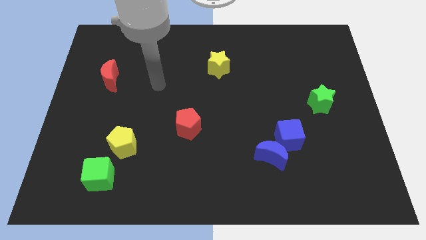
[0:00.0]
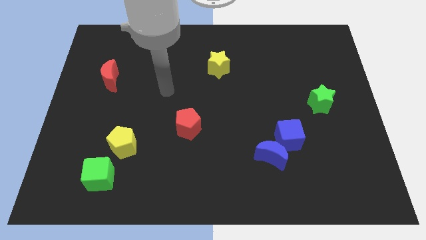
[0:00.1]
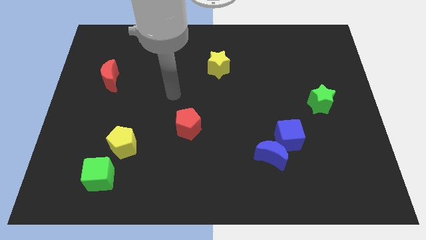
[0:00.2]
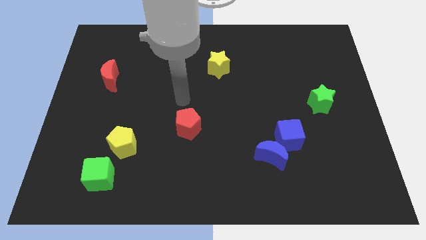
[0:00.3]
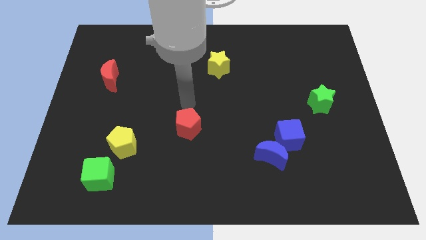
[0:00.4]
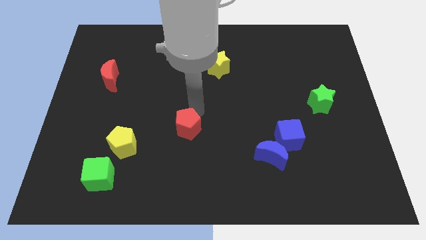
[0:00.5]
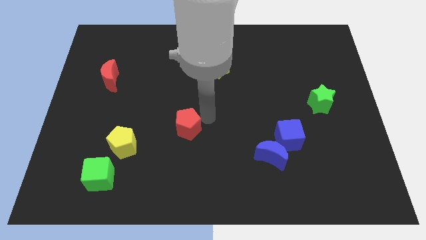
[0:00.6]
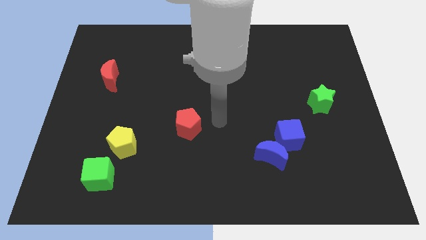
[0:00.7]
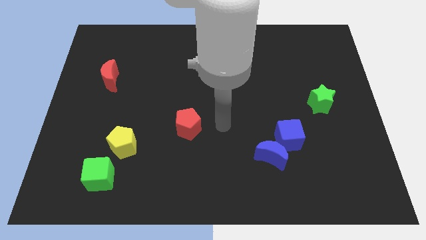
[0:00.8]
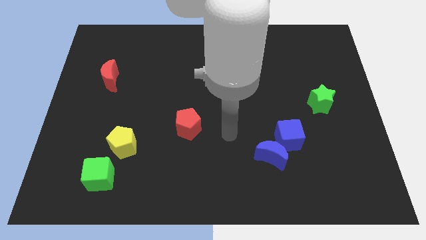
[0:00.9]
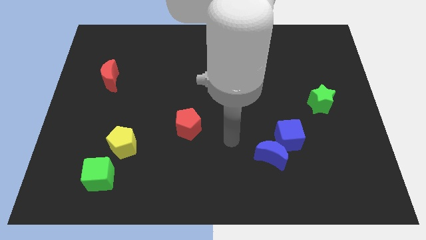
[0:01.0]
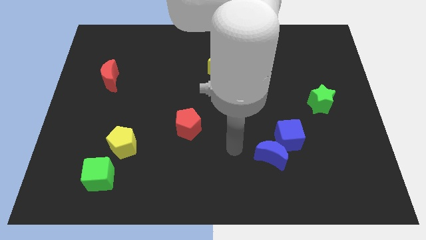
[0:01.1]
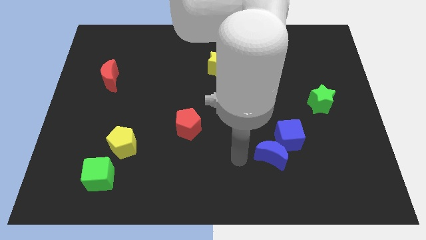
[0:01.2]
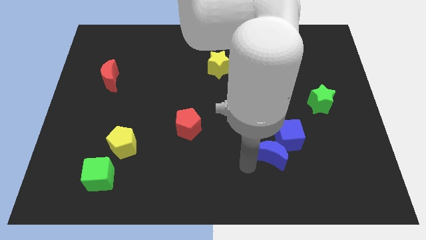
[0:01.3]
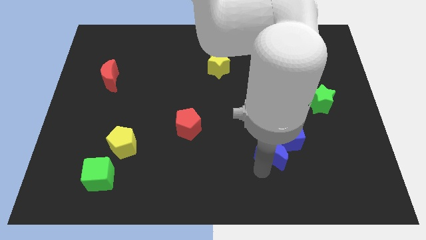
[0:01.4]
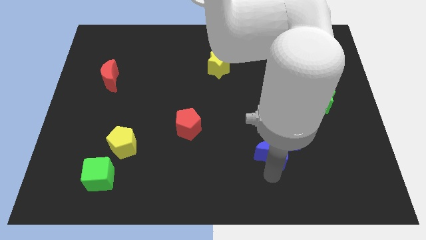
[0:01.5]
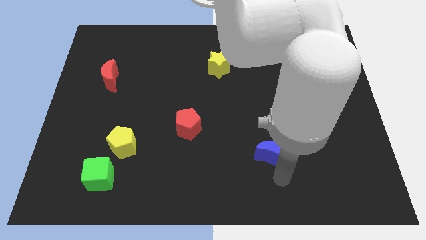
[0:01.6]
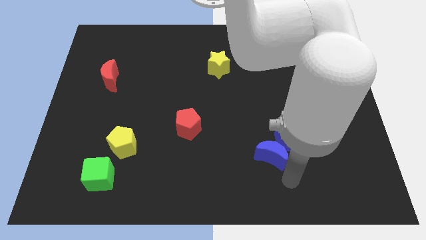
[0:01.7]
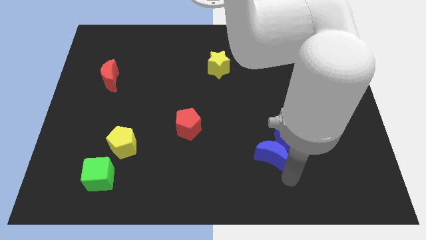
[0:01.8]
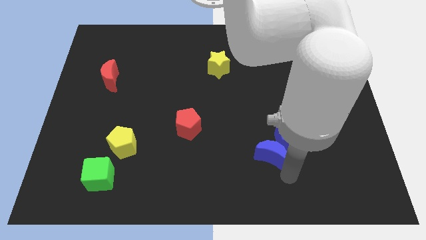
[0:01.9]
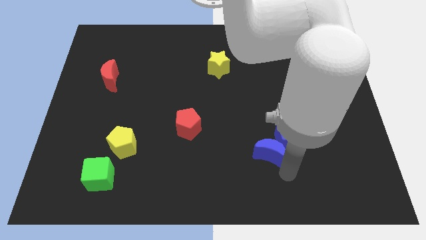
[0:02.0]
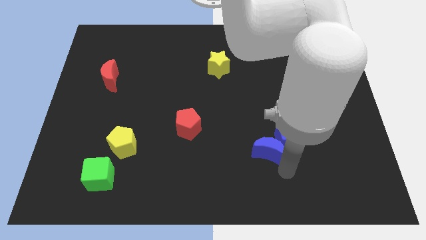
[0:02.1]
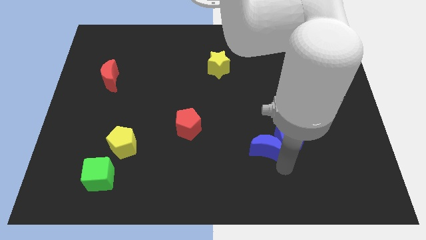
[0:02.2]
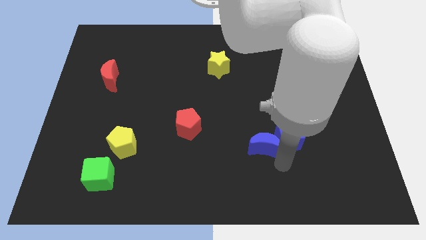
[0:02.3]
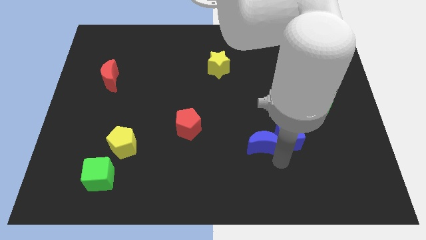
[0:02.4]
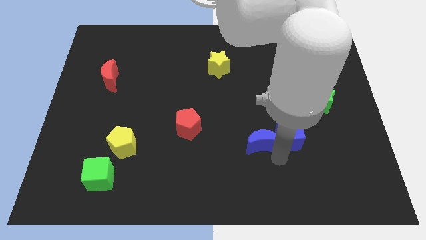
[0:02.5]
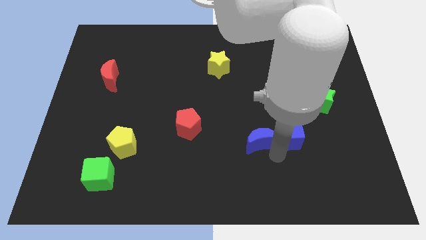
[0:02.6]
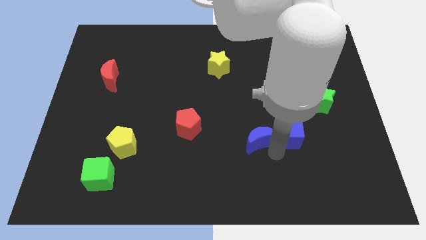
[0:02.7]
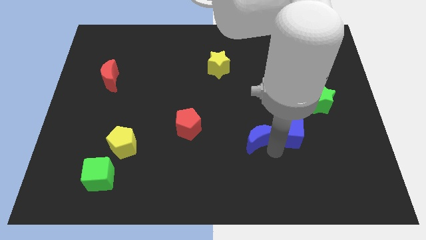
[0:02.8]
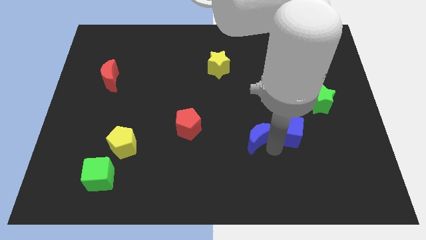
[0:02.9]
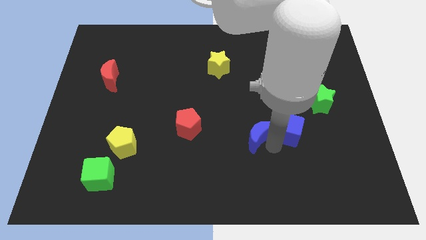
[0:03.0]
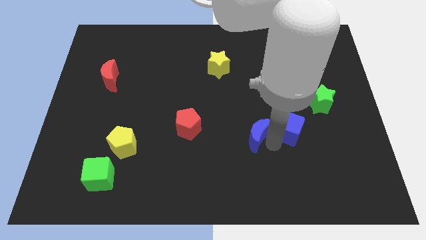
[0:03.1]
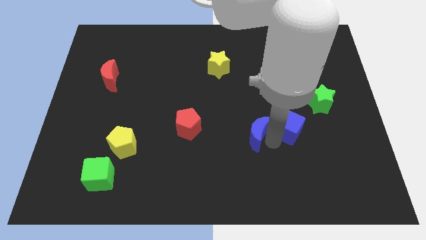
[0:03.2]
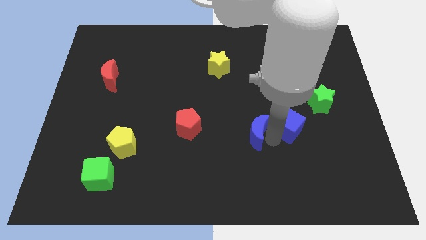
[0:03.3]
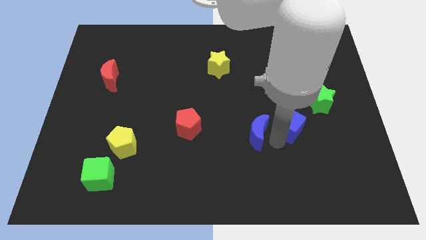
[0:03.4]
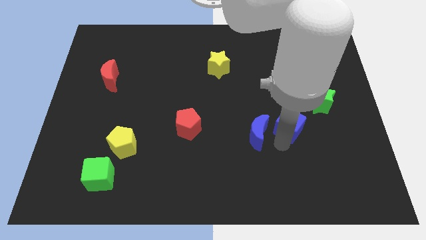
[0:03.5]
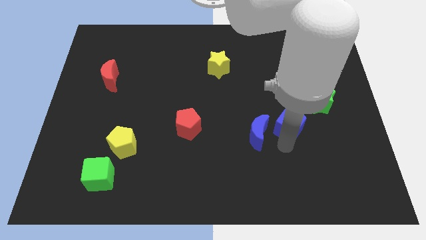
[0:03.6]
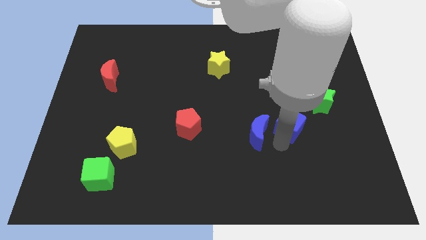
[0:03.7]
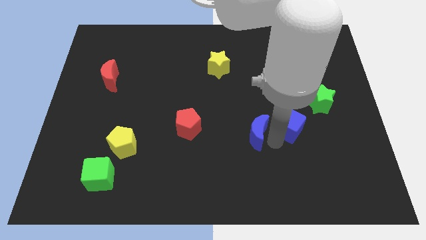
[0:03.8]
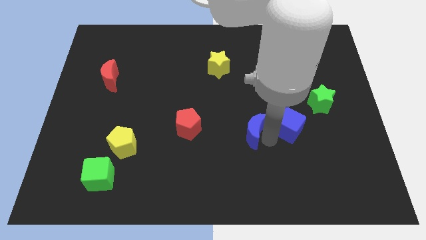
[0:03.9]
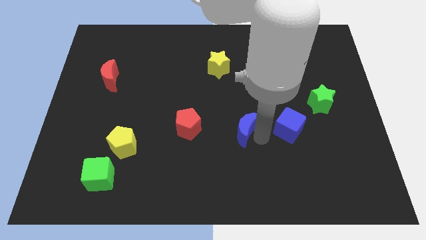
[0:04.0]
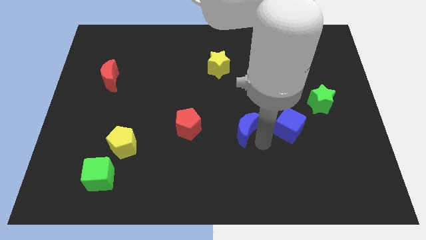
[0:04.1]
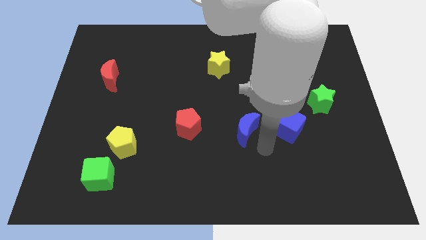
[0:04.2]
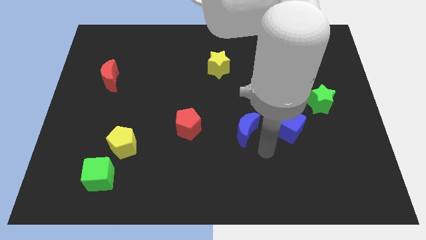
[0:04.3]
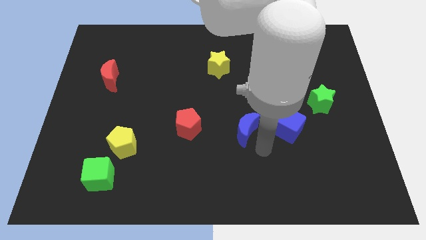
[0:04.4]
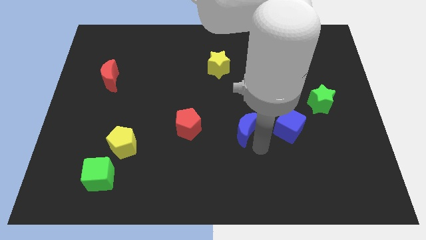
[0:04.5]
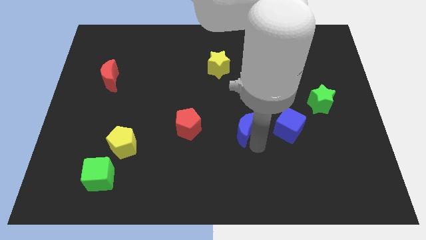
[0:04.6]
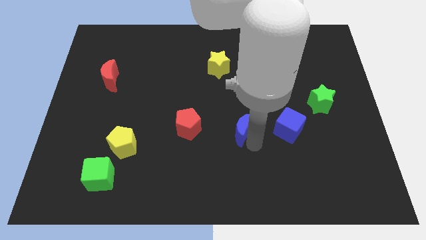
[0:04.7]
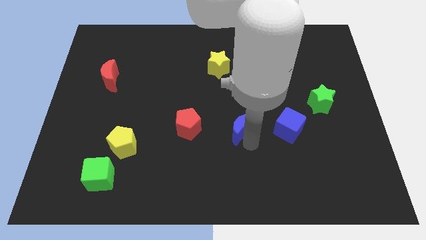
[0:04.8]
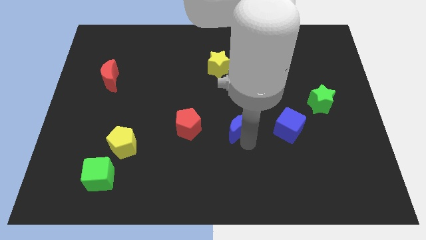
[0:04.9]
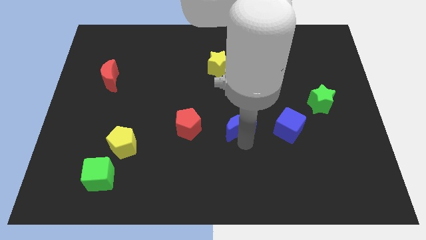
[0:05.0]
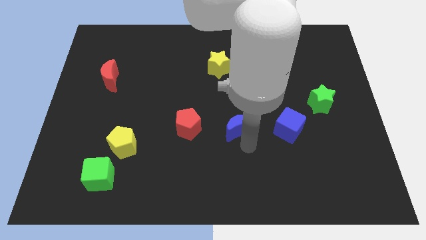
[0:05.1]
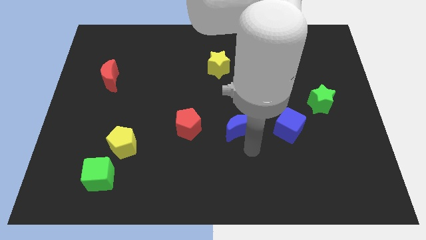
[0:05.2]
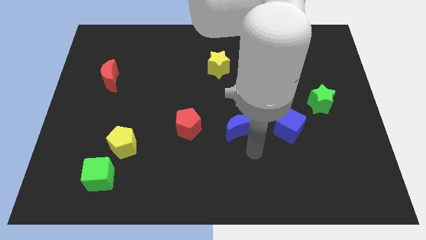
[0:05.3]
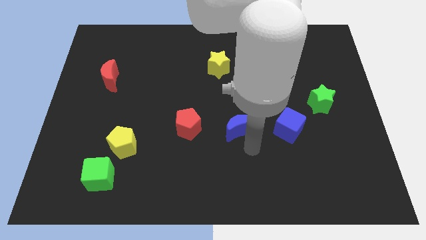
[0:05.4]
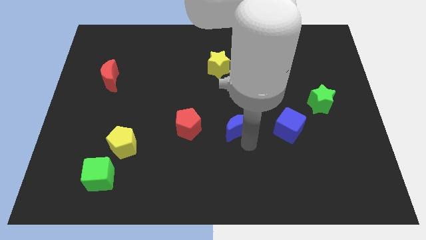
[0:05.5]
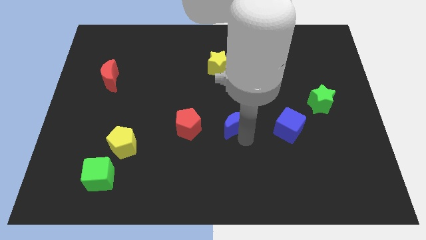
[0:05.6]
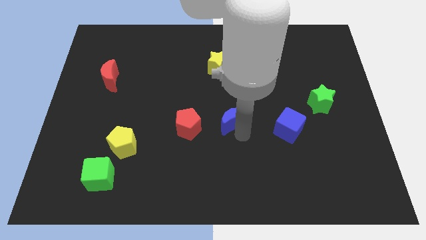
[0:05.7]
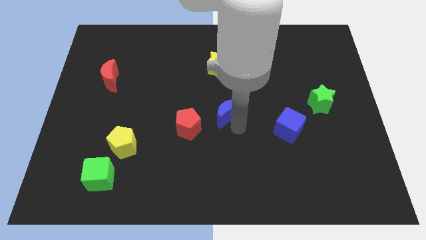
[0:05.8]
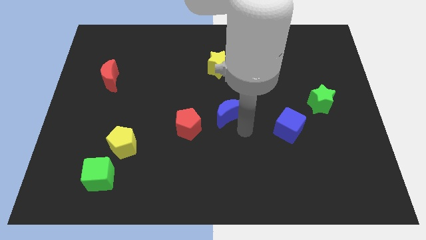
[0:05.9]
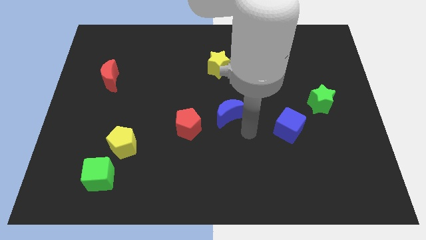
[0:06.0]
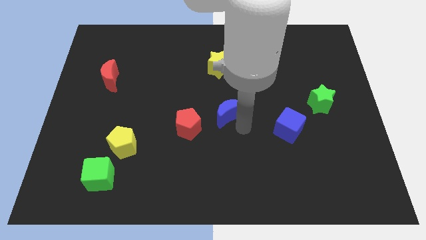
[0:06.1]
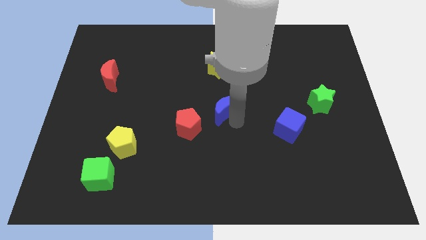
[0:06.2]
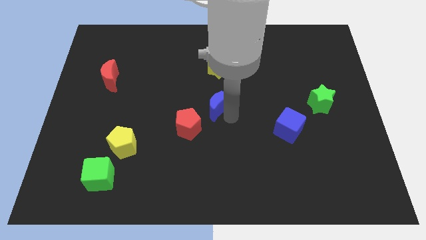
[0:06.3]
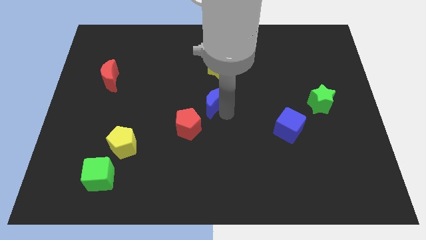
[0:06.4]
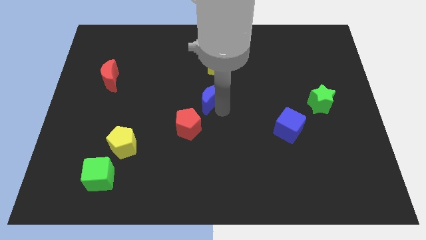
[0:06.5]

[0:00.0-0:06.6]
slide the blue moon upwards and to the left diagonally

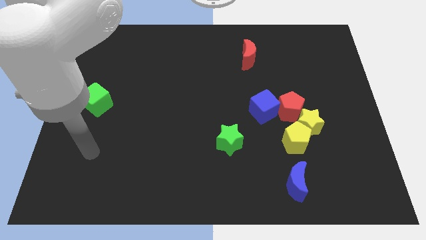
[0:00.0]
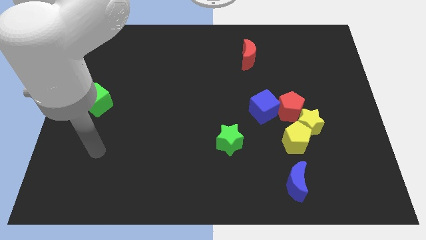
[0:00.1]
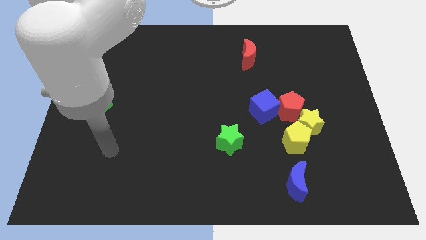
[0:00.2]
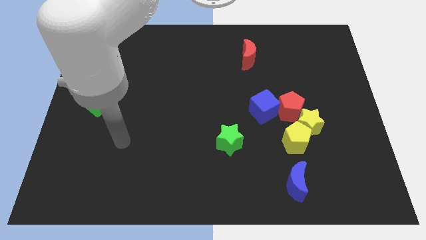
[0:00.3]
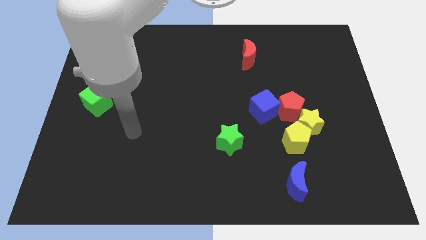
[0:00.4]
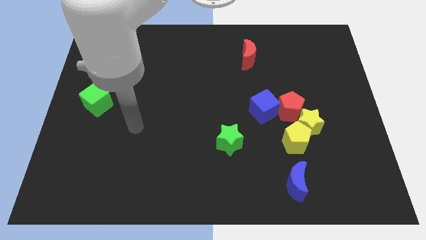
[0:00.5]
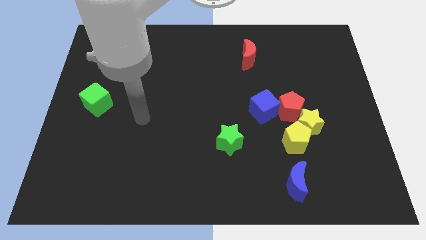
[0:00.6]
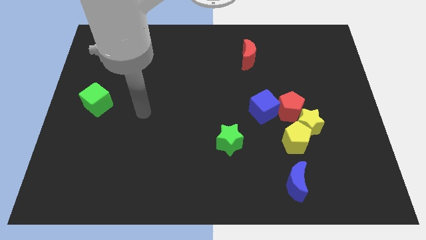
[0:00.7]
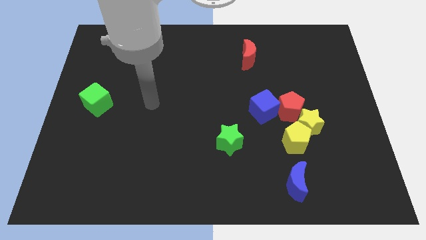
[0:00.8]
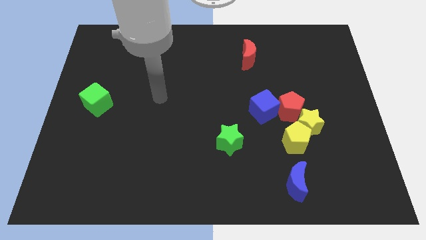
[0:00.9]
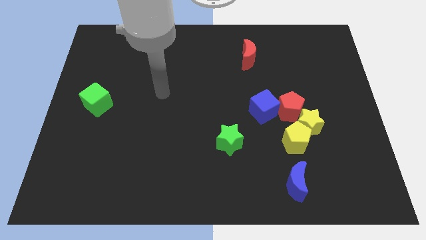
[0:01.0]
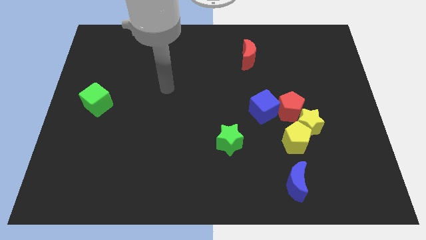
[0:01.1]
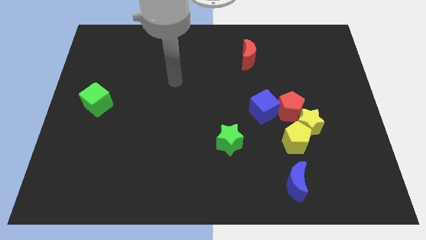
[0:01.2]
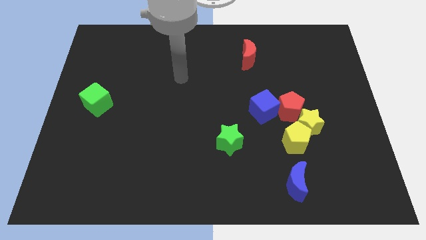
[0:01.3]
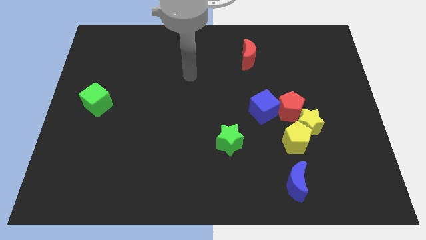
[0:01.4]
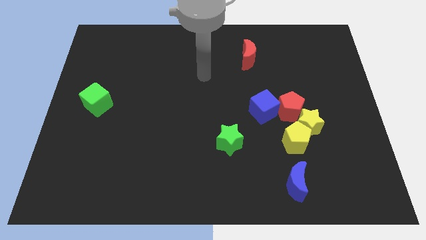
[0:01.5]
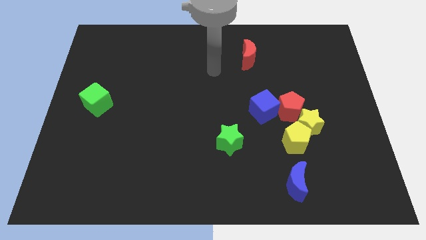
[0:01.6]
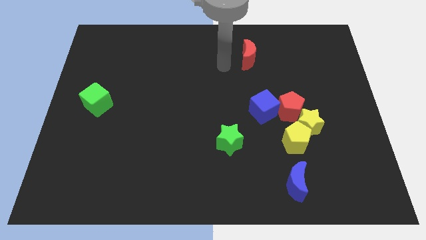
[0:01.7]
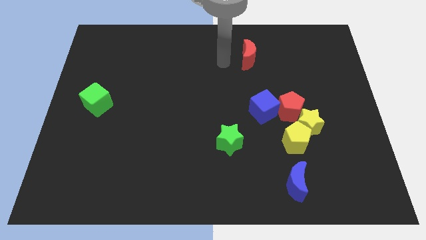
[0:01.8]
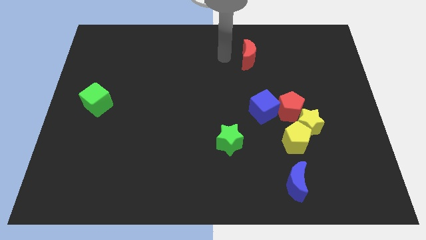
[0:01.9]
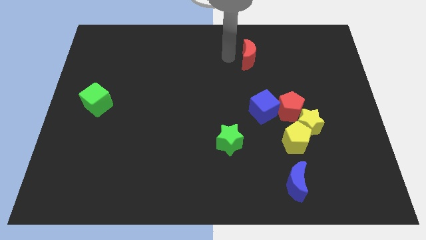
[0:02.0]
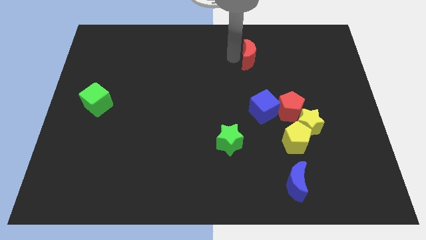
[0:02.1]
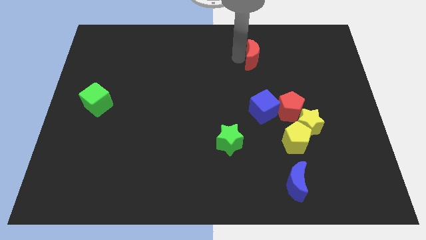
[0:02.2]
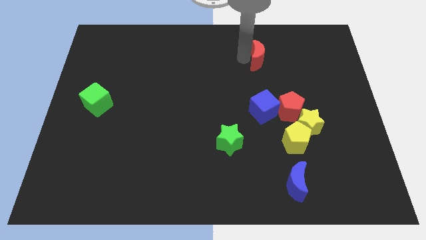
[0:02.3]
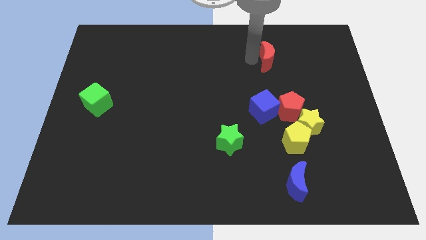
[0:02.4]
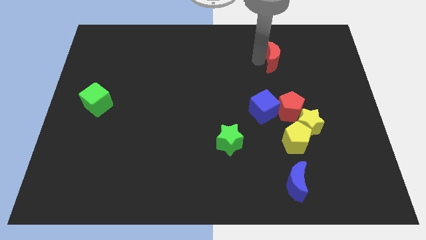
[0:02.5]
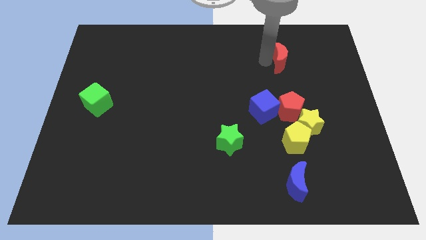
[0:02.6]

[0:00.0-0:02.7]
push the red moon right a bit
